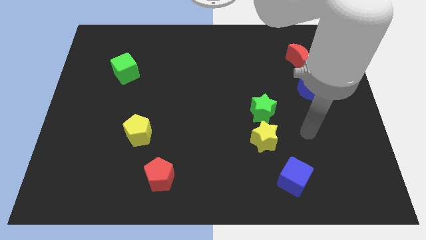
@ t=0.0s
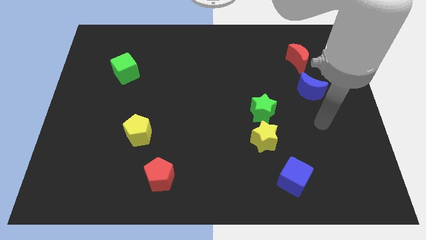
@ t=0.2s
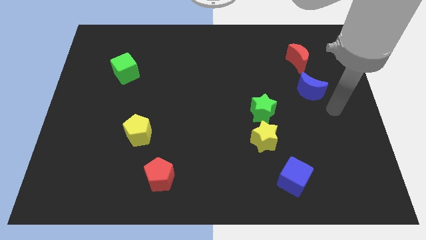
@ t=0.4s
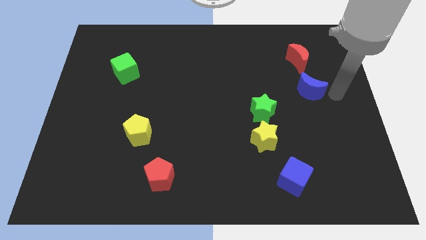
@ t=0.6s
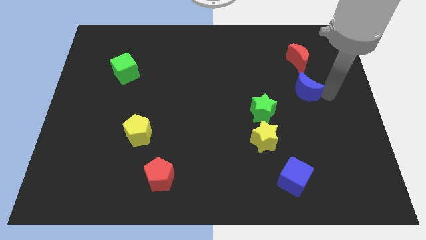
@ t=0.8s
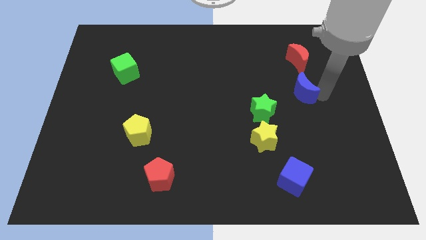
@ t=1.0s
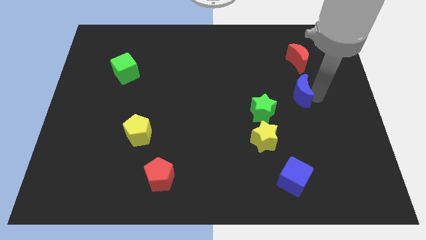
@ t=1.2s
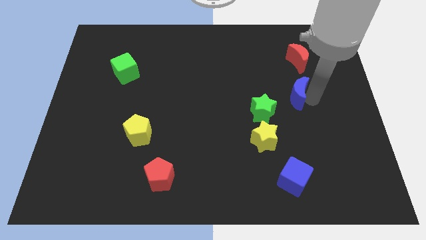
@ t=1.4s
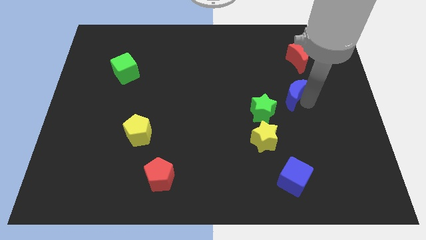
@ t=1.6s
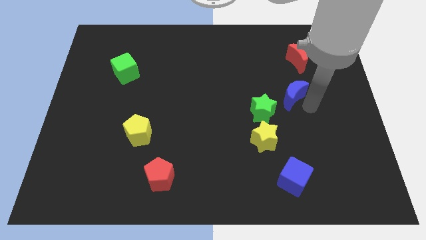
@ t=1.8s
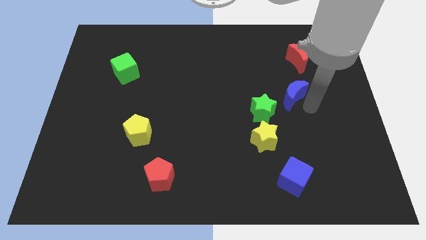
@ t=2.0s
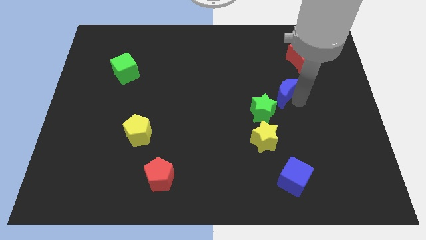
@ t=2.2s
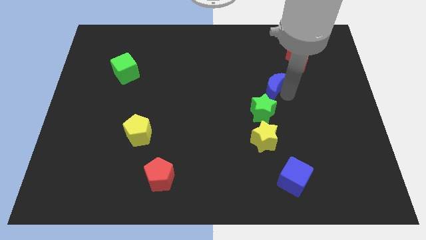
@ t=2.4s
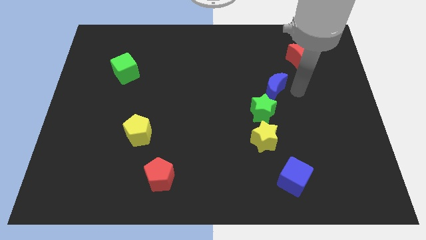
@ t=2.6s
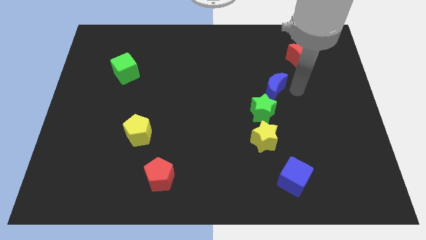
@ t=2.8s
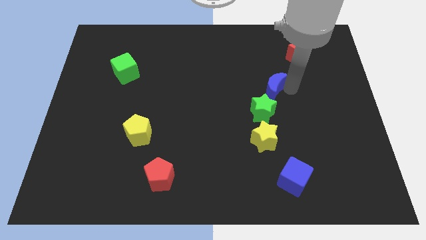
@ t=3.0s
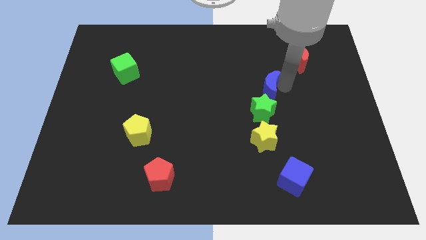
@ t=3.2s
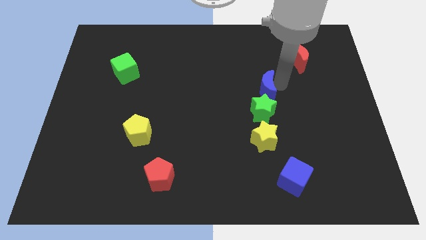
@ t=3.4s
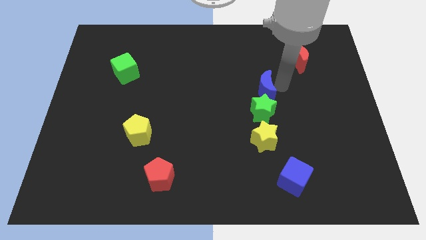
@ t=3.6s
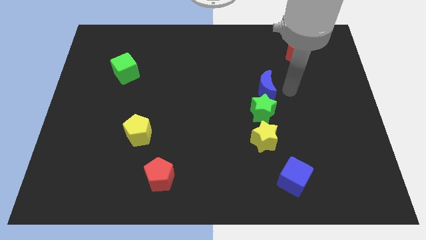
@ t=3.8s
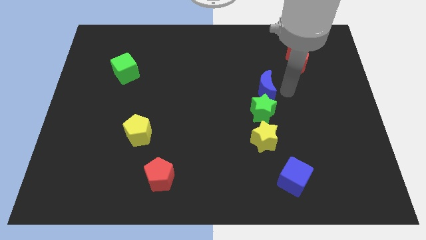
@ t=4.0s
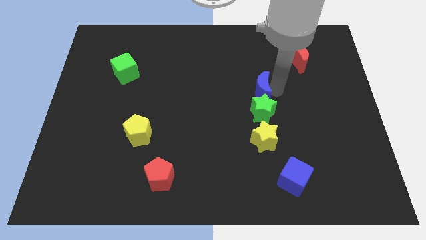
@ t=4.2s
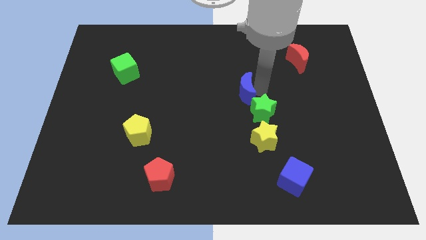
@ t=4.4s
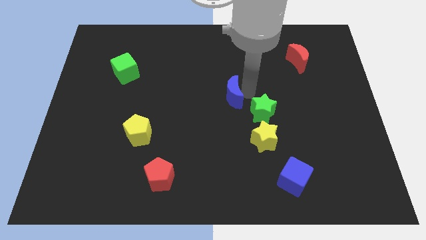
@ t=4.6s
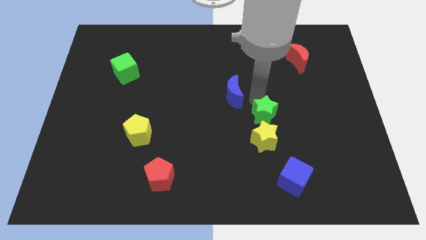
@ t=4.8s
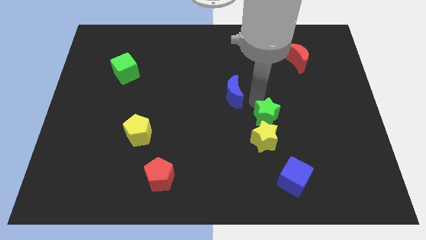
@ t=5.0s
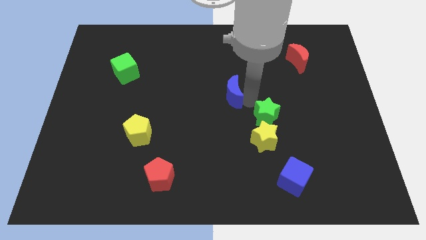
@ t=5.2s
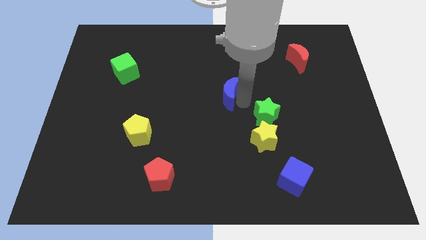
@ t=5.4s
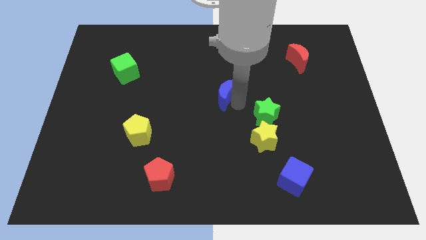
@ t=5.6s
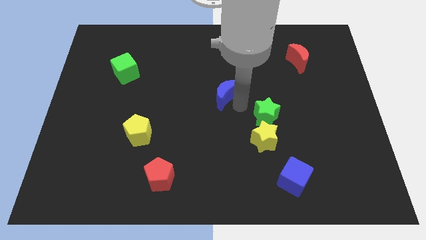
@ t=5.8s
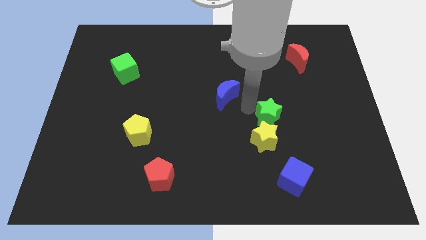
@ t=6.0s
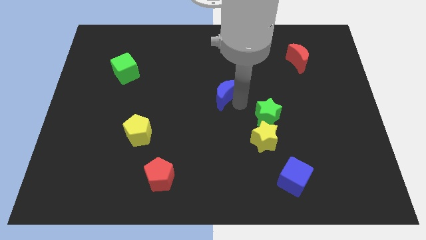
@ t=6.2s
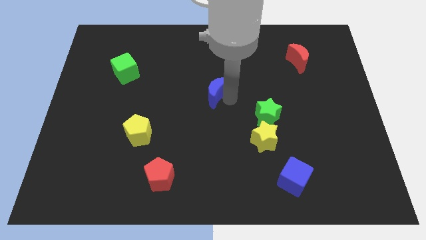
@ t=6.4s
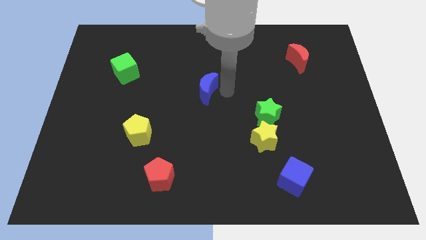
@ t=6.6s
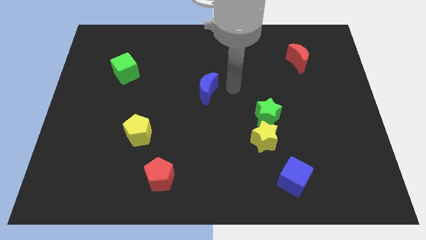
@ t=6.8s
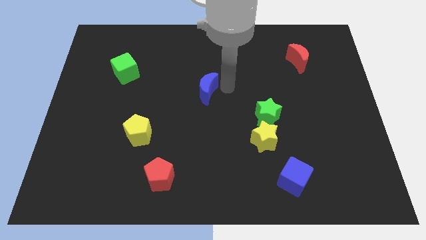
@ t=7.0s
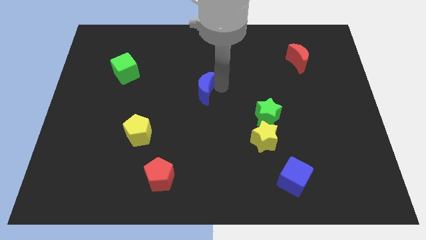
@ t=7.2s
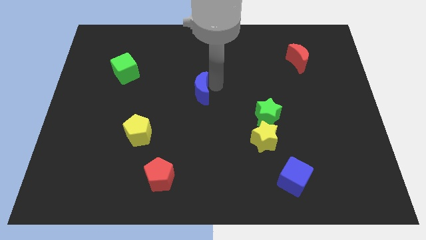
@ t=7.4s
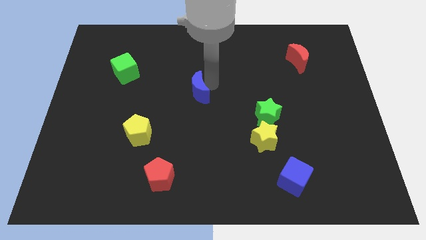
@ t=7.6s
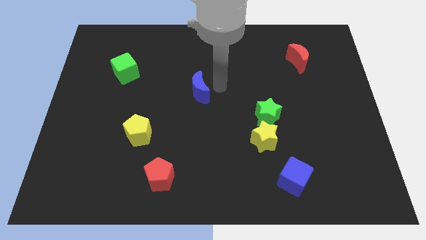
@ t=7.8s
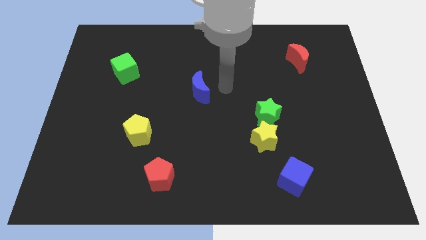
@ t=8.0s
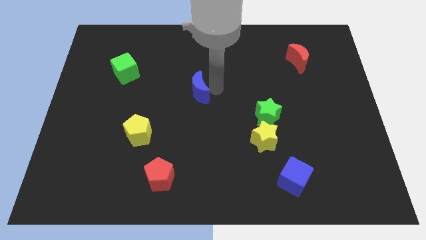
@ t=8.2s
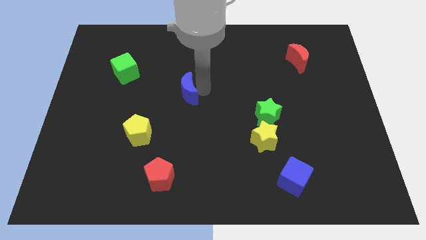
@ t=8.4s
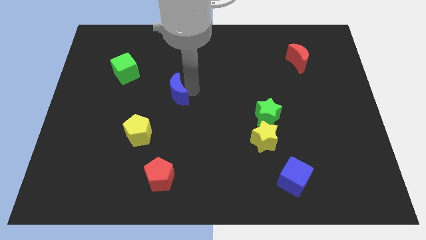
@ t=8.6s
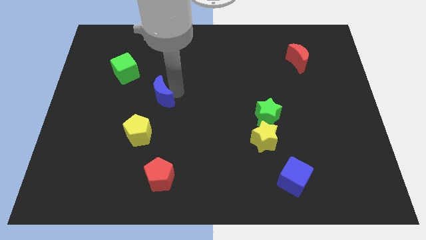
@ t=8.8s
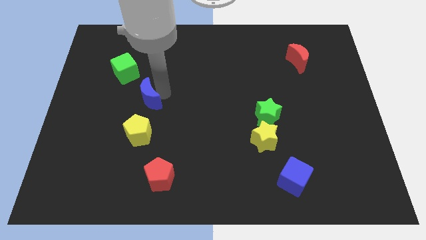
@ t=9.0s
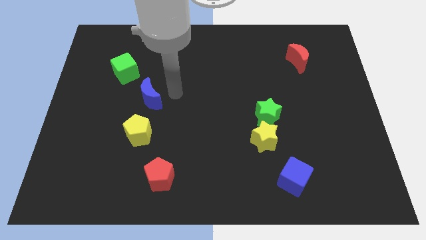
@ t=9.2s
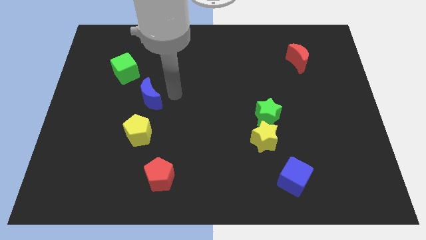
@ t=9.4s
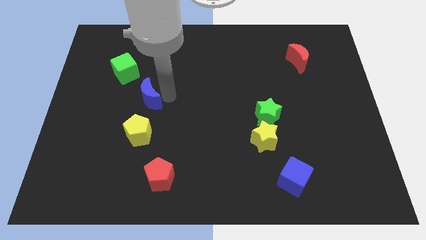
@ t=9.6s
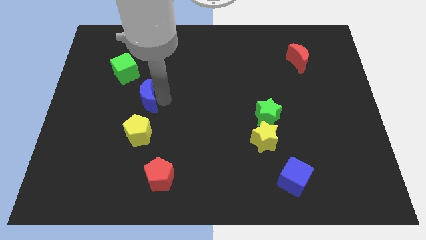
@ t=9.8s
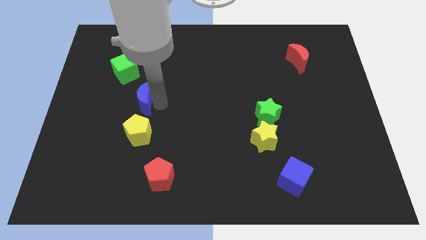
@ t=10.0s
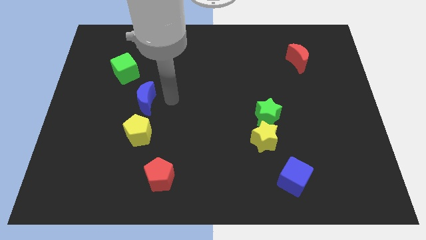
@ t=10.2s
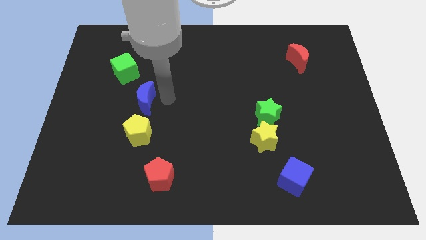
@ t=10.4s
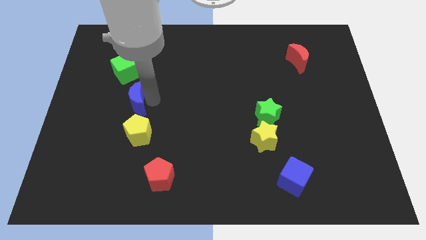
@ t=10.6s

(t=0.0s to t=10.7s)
push the blue moon to the bottom side of the green cube

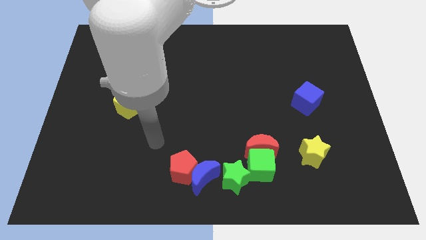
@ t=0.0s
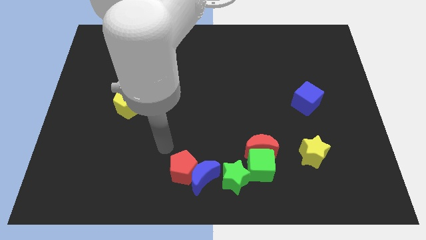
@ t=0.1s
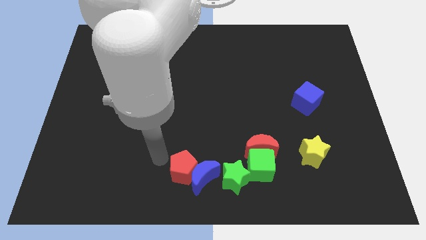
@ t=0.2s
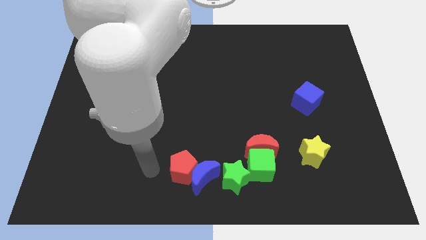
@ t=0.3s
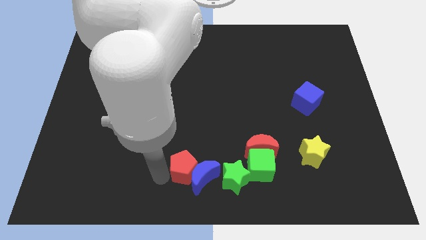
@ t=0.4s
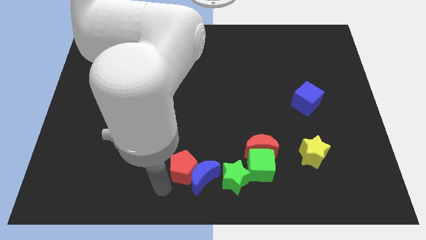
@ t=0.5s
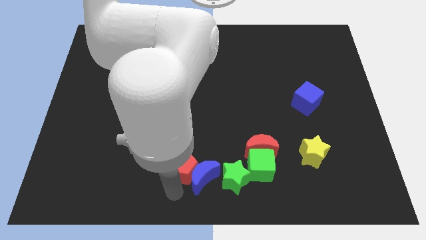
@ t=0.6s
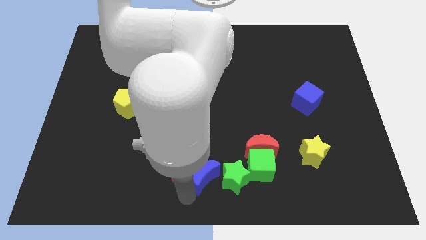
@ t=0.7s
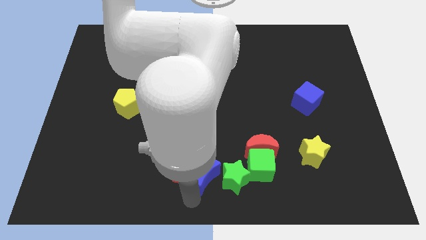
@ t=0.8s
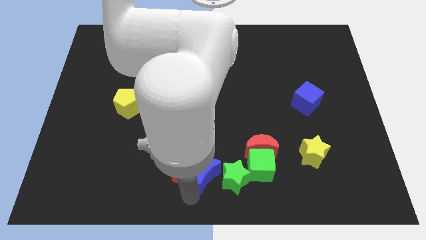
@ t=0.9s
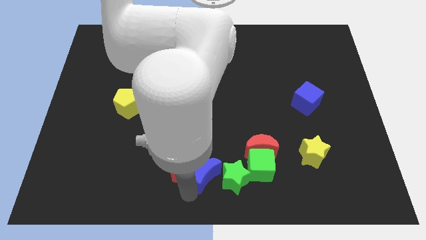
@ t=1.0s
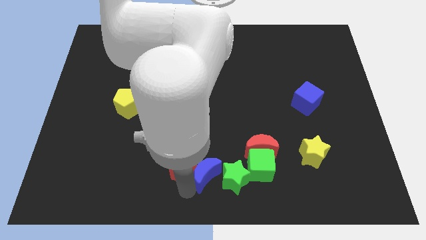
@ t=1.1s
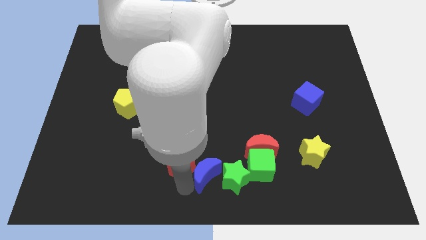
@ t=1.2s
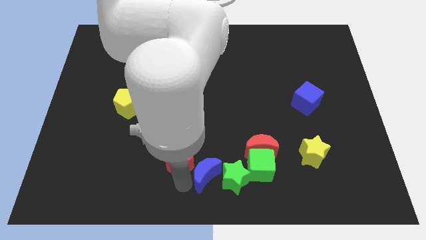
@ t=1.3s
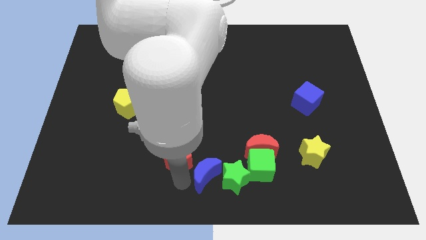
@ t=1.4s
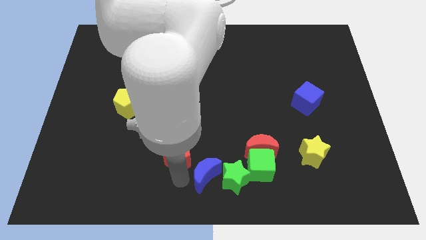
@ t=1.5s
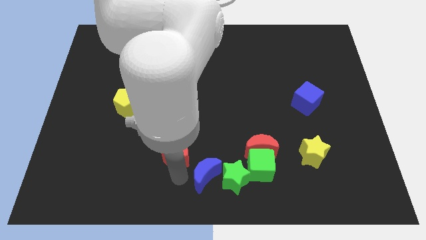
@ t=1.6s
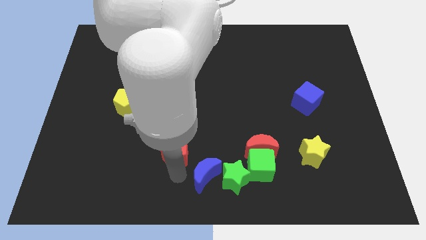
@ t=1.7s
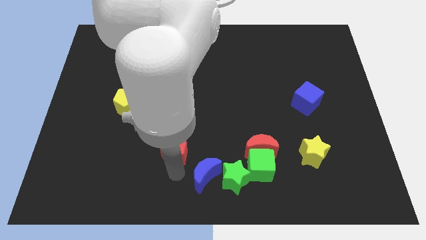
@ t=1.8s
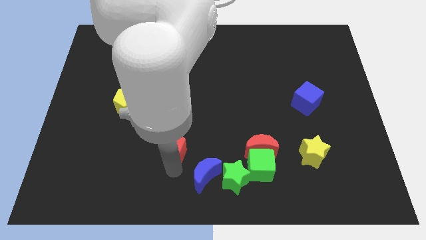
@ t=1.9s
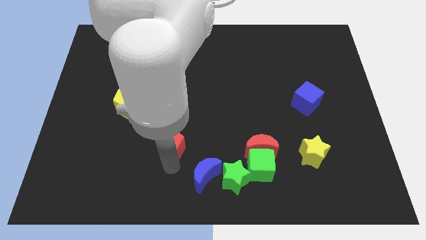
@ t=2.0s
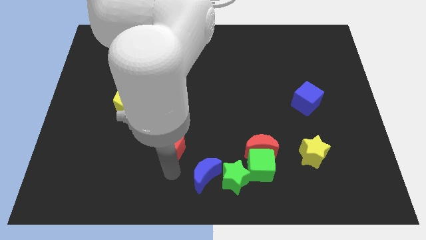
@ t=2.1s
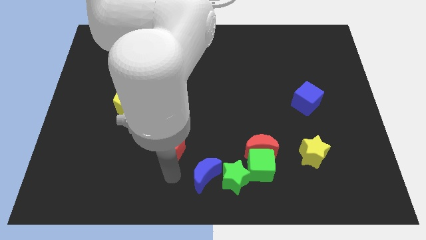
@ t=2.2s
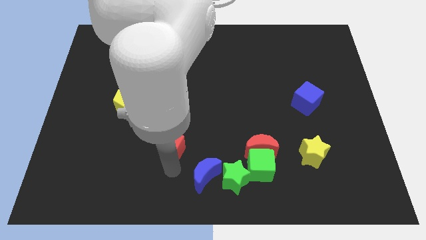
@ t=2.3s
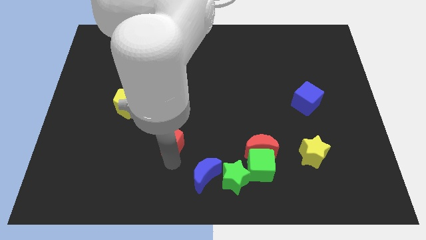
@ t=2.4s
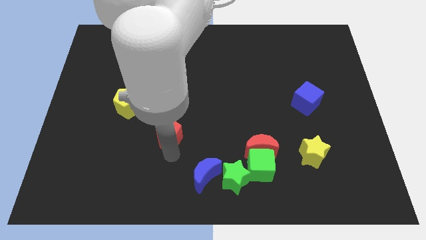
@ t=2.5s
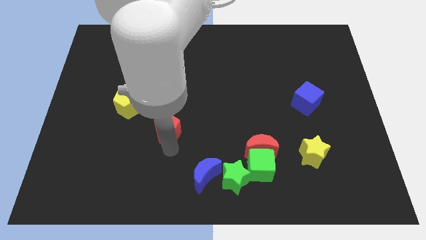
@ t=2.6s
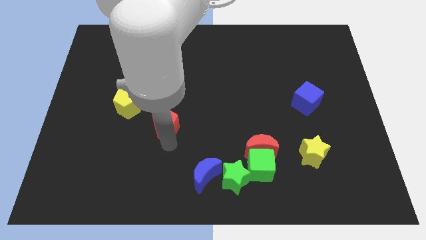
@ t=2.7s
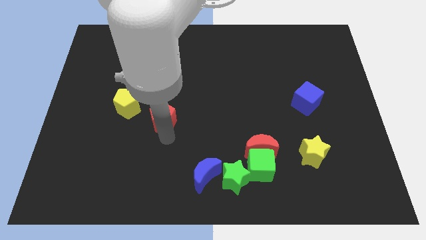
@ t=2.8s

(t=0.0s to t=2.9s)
push the red pentagon to the right of the yellow pentagon

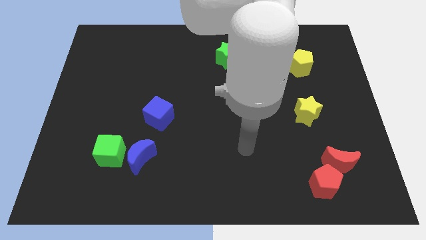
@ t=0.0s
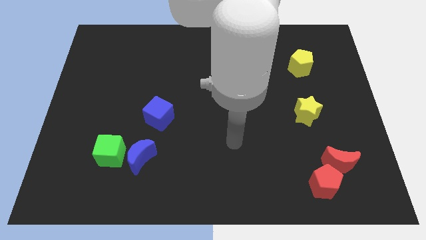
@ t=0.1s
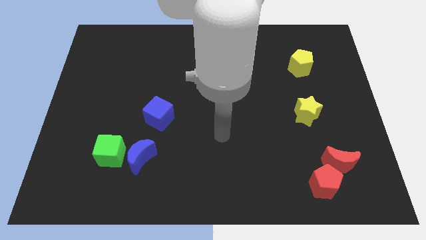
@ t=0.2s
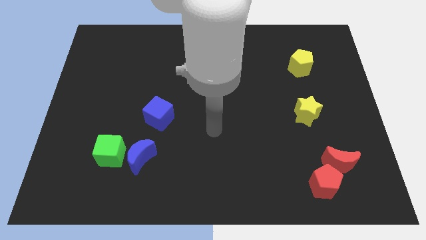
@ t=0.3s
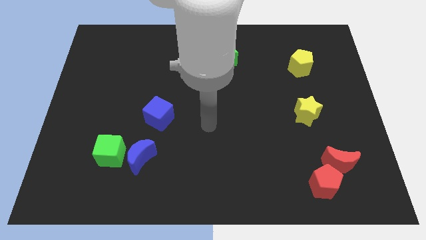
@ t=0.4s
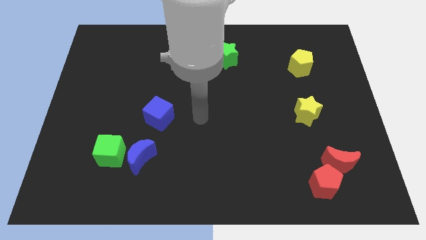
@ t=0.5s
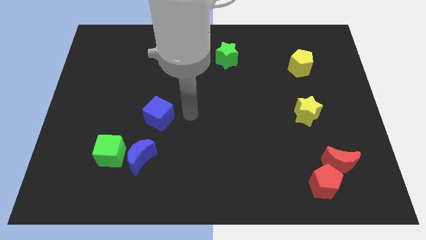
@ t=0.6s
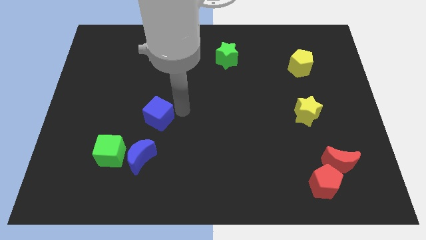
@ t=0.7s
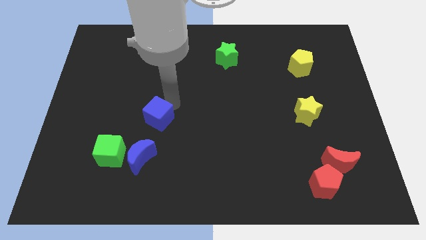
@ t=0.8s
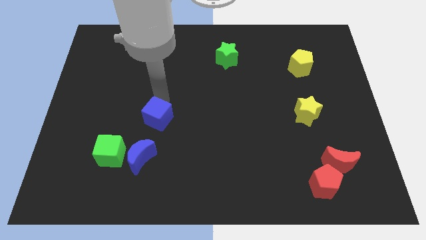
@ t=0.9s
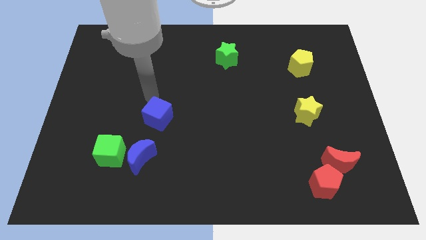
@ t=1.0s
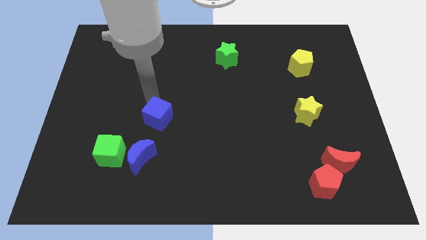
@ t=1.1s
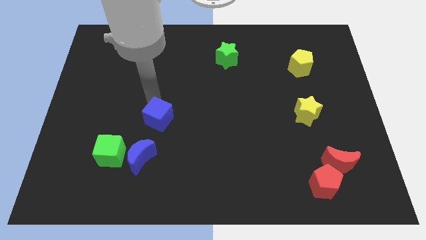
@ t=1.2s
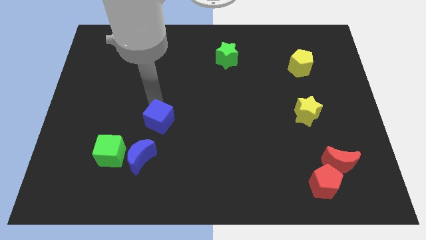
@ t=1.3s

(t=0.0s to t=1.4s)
slide the blue cube to the top right of the blue moon
